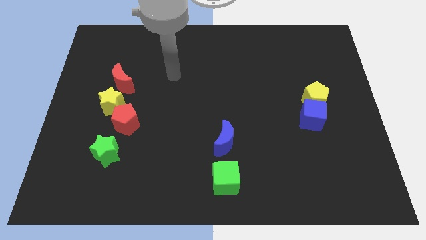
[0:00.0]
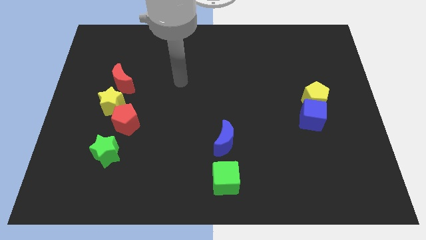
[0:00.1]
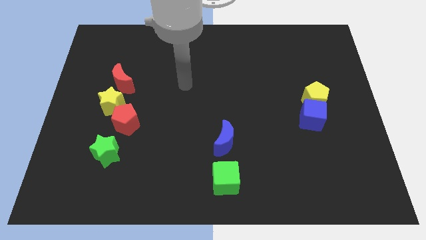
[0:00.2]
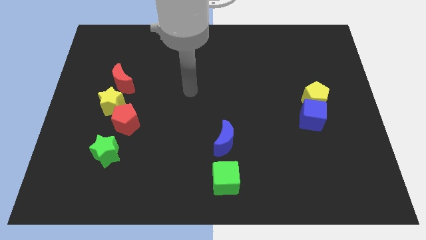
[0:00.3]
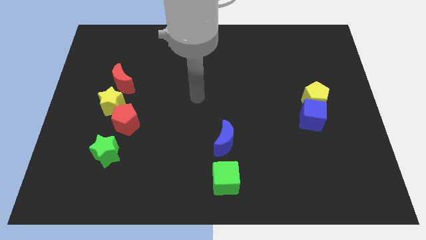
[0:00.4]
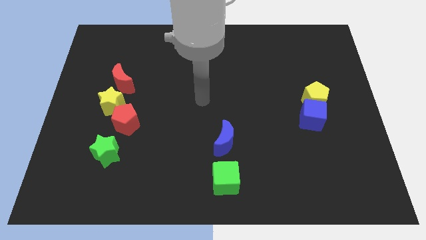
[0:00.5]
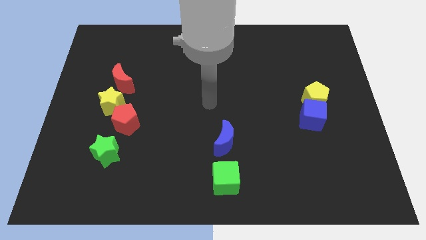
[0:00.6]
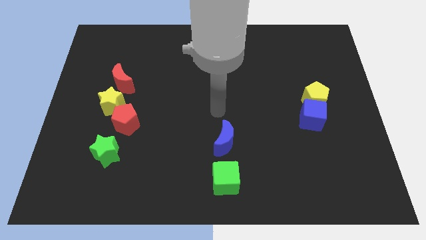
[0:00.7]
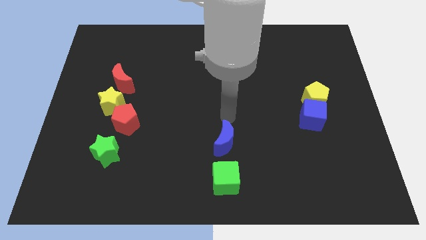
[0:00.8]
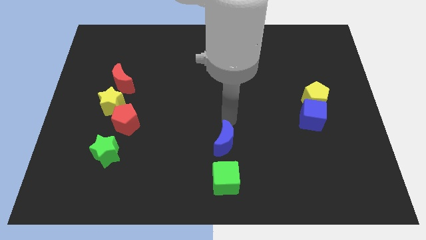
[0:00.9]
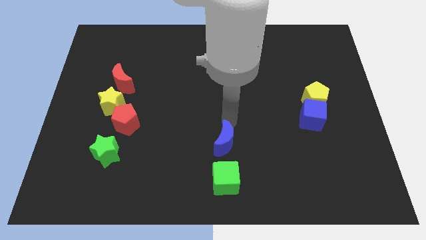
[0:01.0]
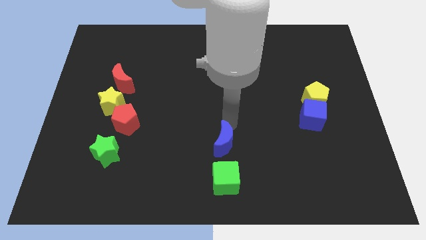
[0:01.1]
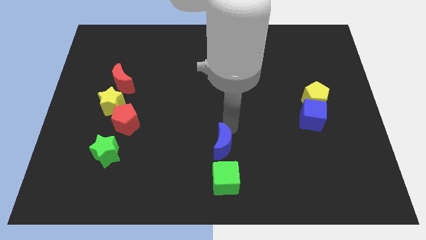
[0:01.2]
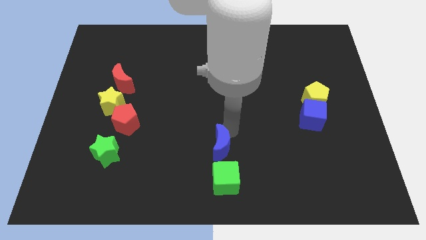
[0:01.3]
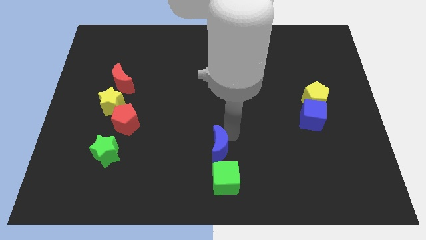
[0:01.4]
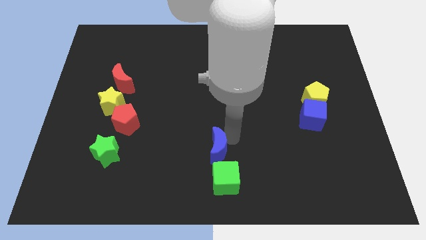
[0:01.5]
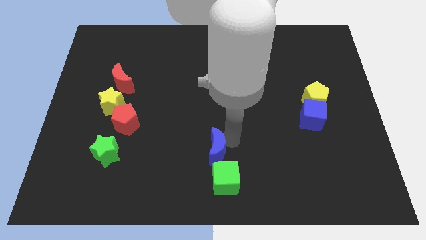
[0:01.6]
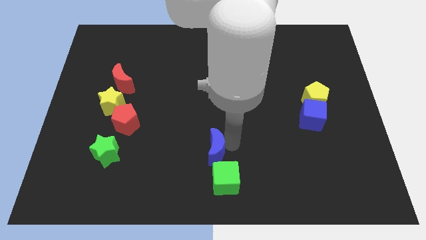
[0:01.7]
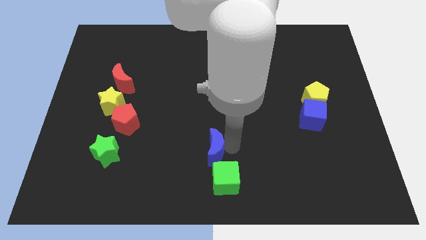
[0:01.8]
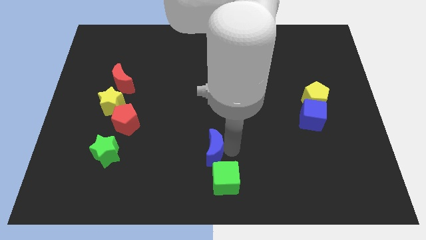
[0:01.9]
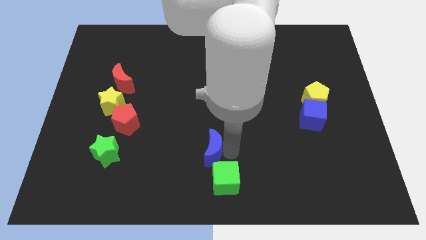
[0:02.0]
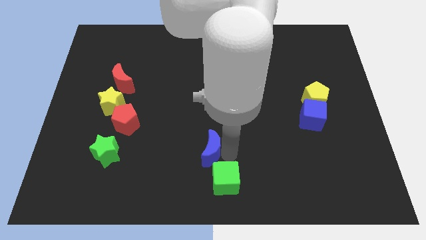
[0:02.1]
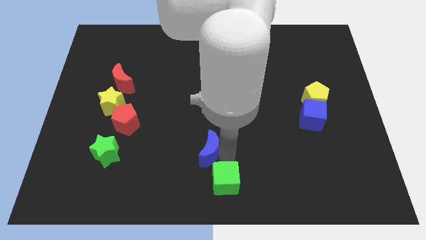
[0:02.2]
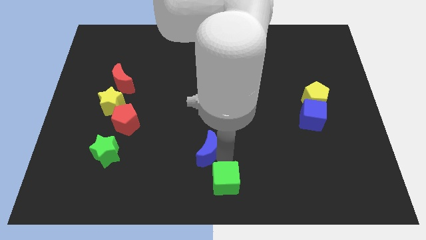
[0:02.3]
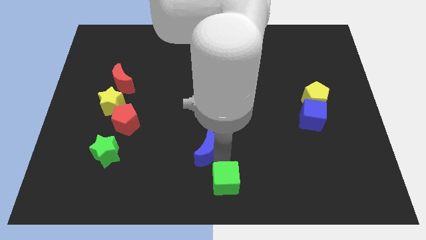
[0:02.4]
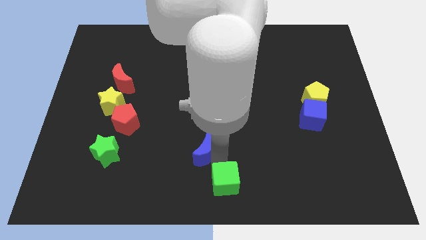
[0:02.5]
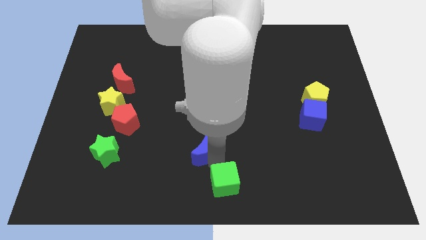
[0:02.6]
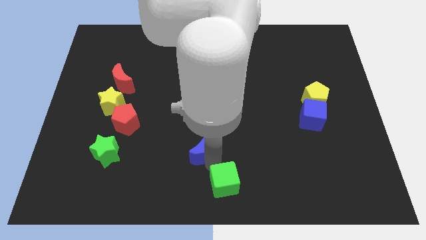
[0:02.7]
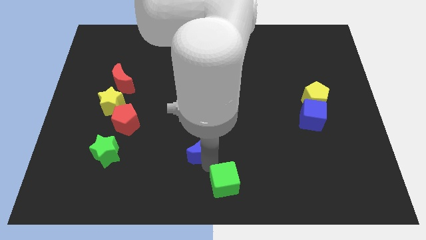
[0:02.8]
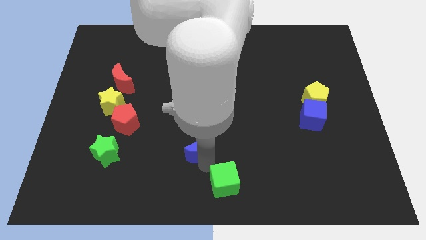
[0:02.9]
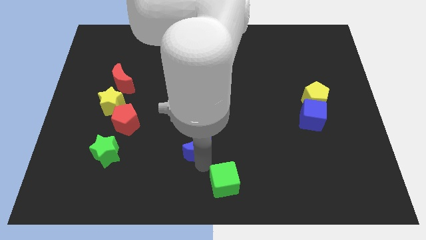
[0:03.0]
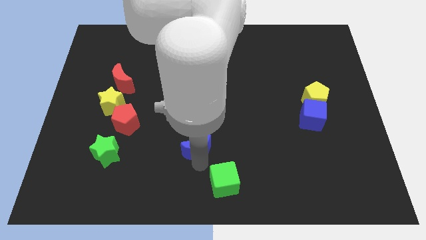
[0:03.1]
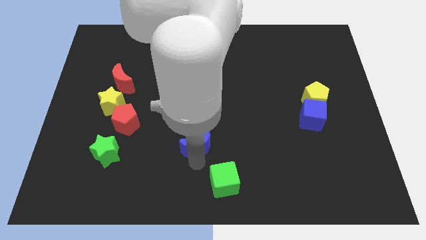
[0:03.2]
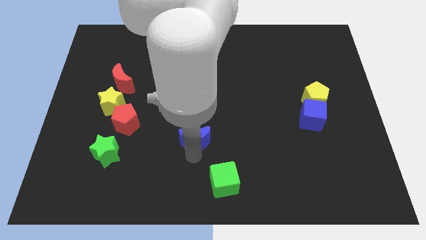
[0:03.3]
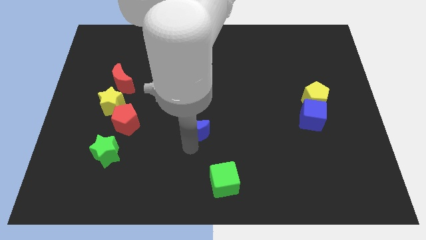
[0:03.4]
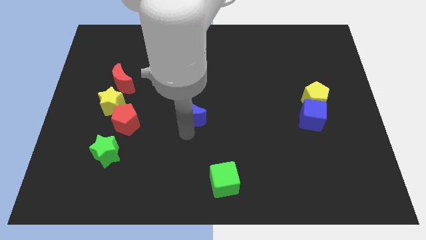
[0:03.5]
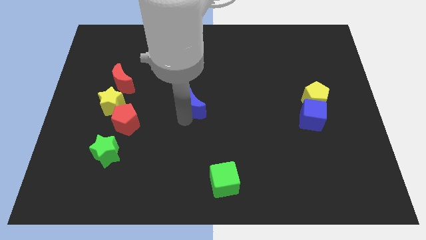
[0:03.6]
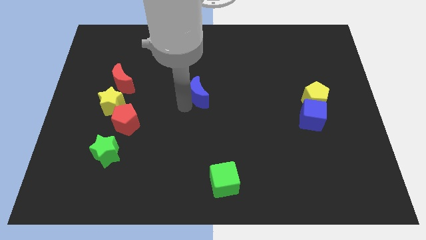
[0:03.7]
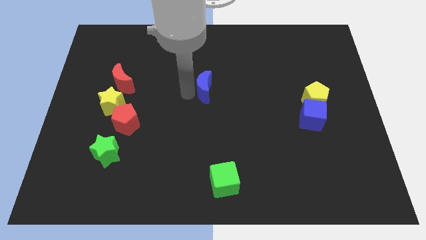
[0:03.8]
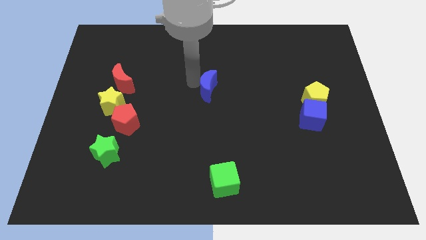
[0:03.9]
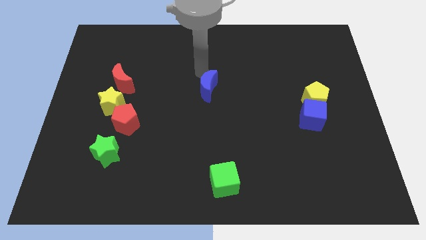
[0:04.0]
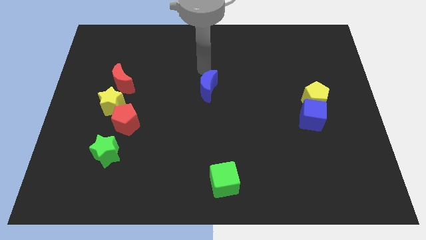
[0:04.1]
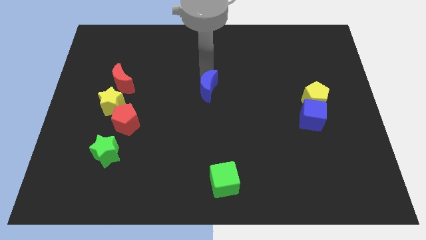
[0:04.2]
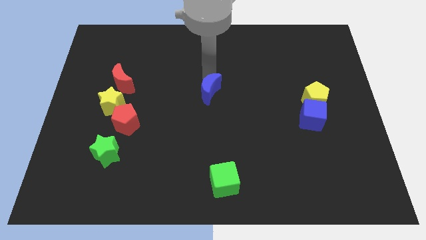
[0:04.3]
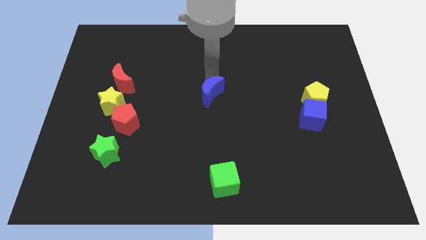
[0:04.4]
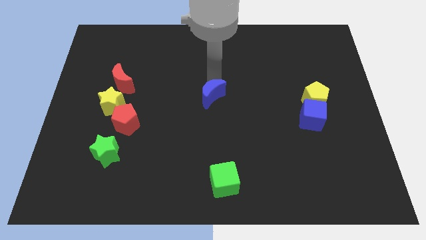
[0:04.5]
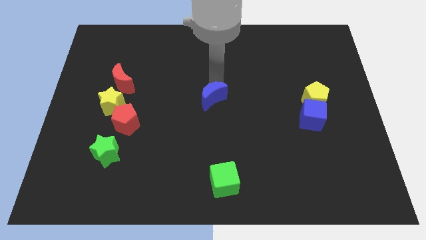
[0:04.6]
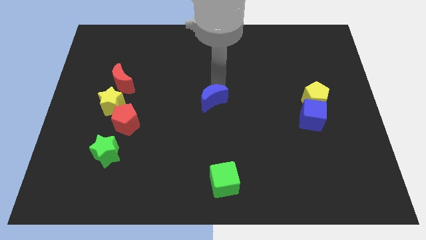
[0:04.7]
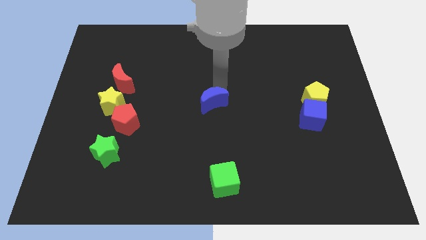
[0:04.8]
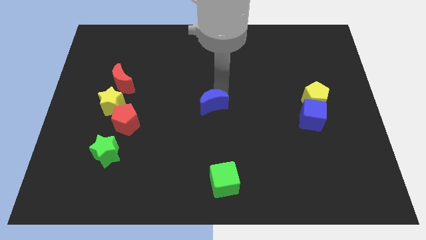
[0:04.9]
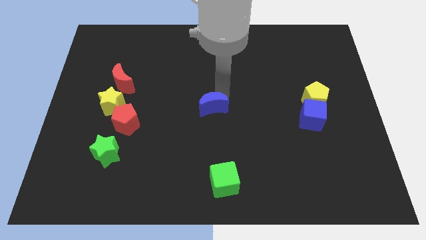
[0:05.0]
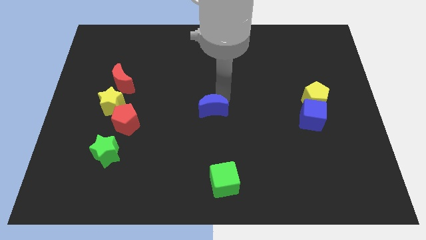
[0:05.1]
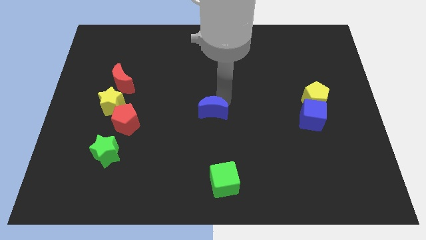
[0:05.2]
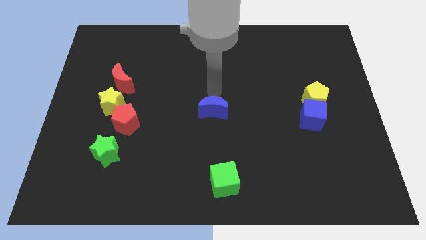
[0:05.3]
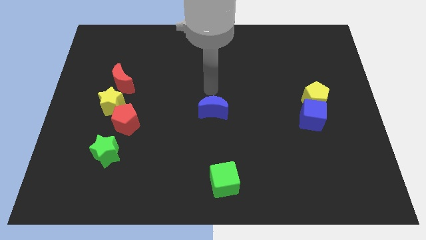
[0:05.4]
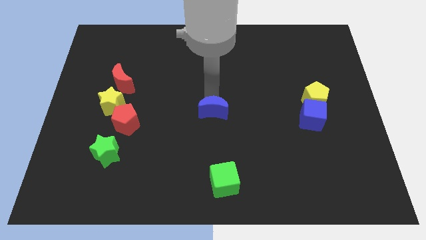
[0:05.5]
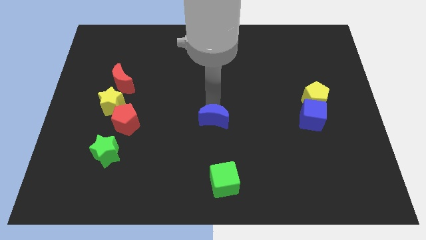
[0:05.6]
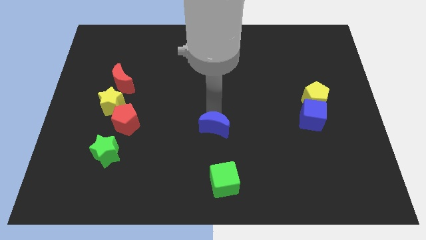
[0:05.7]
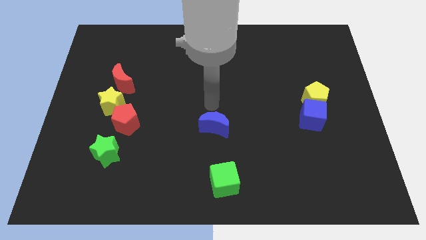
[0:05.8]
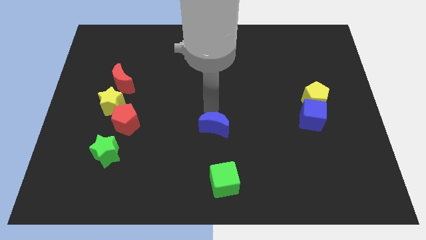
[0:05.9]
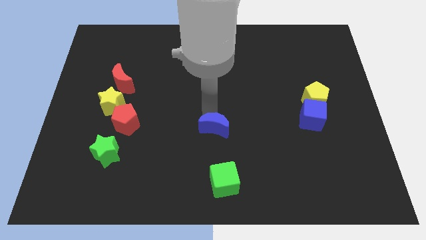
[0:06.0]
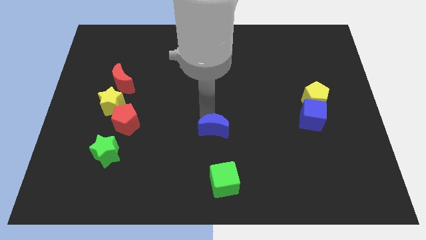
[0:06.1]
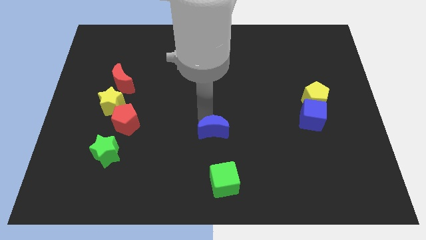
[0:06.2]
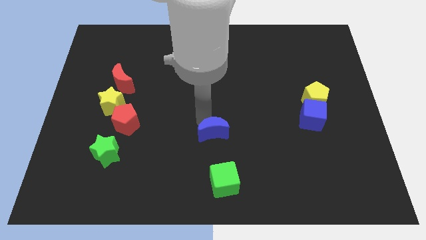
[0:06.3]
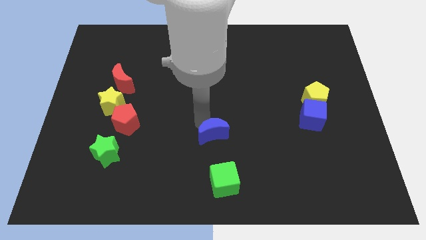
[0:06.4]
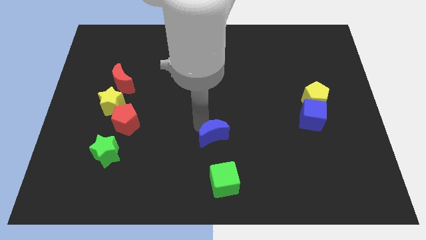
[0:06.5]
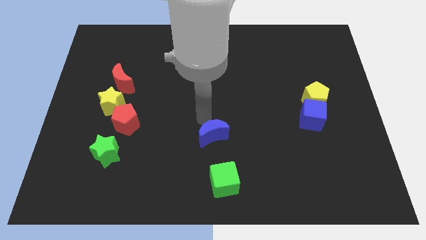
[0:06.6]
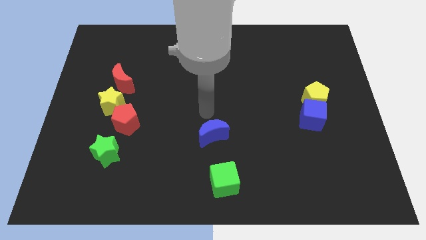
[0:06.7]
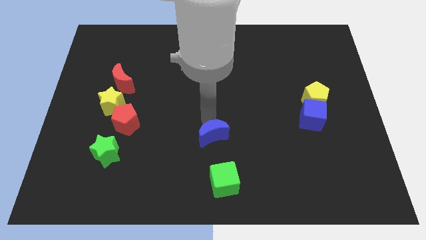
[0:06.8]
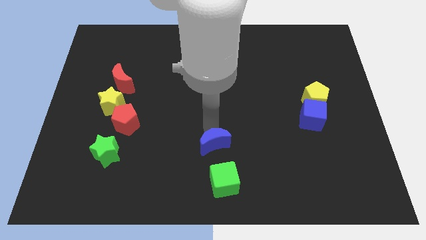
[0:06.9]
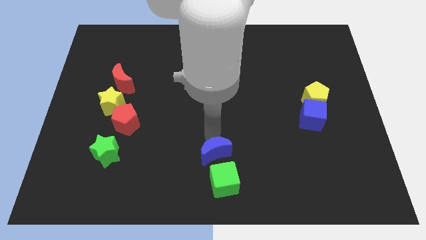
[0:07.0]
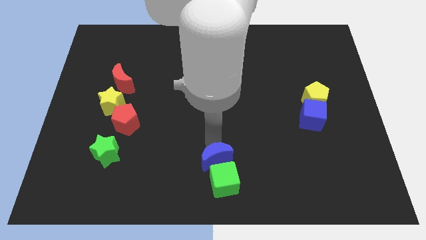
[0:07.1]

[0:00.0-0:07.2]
move the blue moon to the green cube

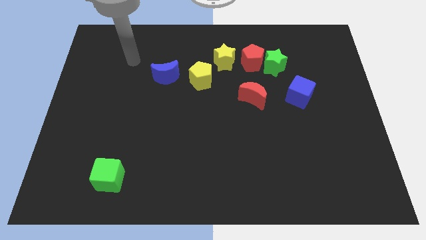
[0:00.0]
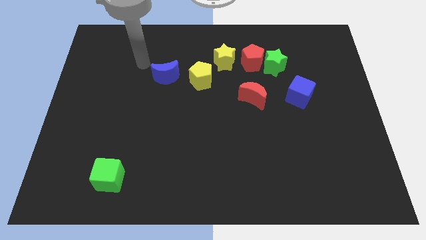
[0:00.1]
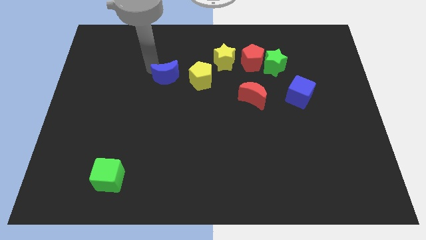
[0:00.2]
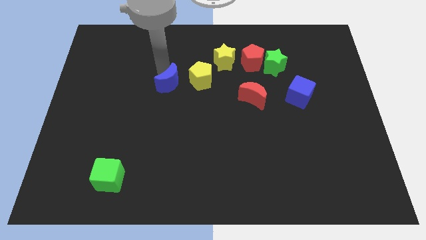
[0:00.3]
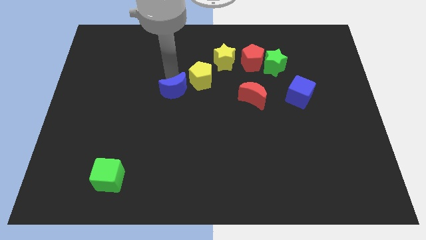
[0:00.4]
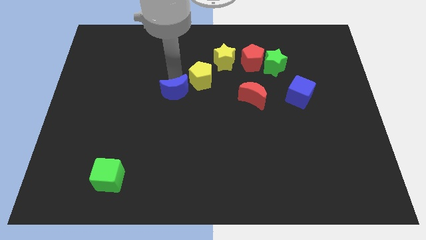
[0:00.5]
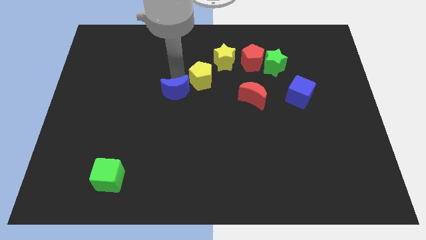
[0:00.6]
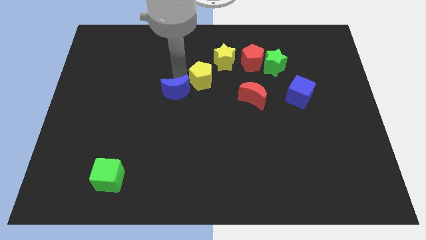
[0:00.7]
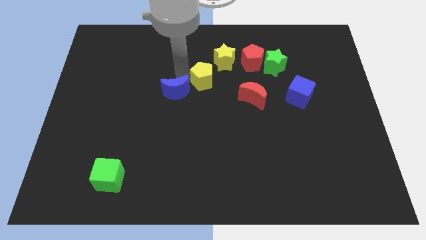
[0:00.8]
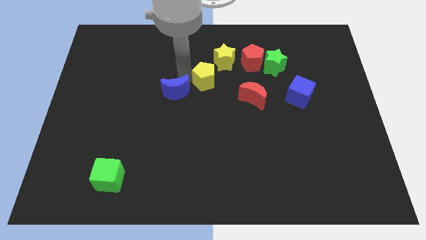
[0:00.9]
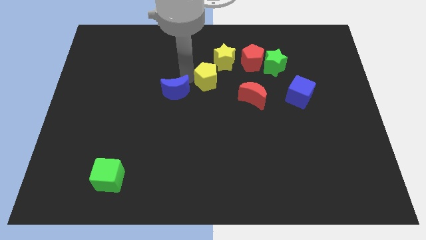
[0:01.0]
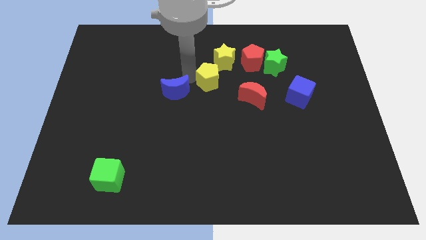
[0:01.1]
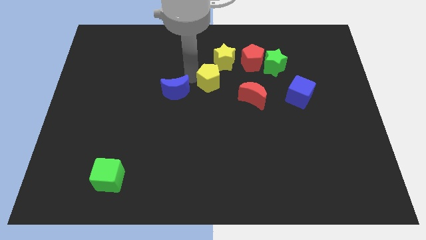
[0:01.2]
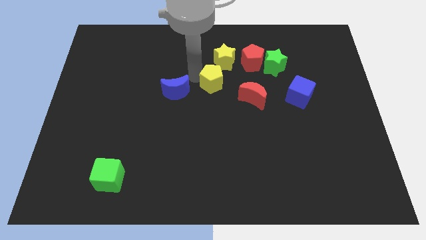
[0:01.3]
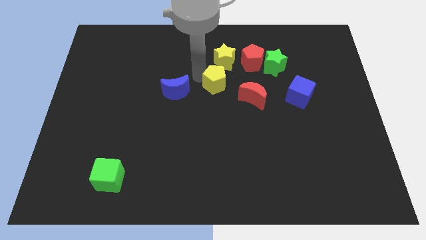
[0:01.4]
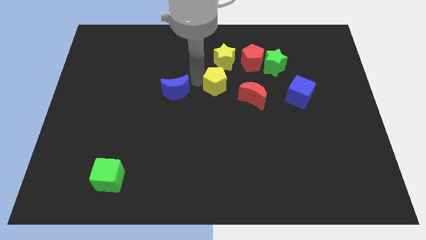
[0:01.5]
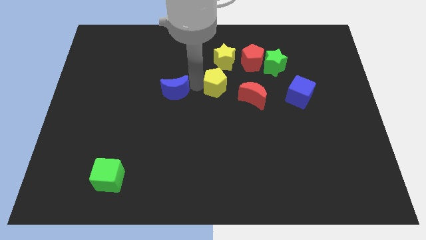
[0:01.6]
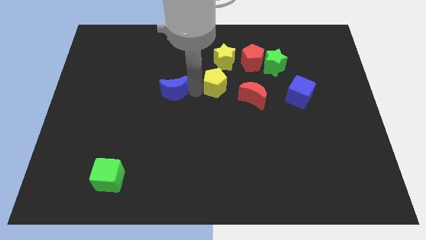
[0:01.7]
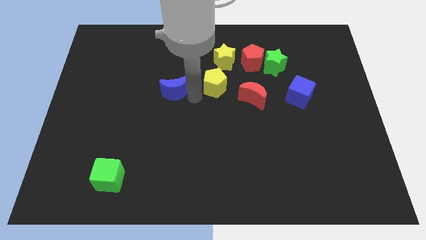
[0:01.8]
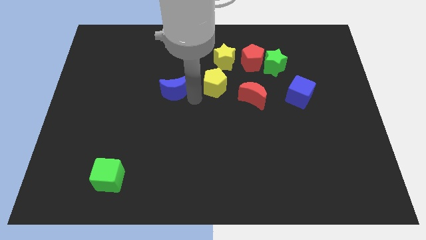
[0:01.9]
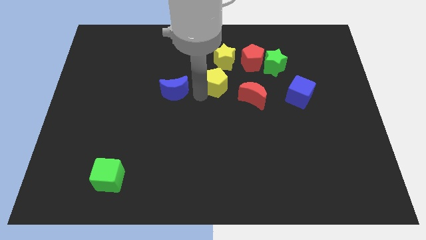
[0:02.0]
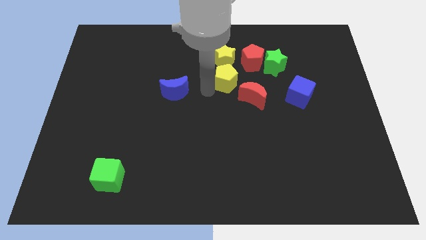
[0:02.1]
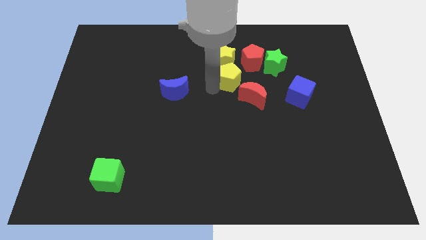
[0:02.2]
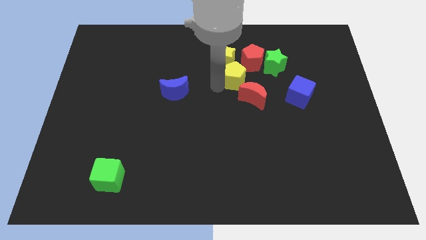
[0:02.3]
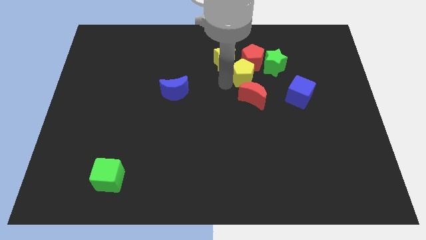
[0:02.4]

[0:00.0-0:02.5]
slide the yellow pentagon to the red pentagon
